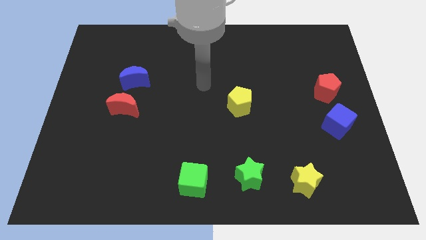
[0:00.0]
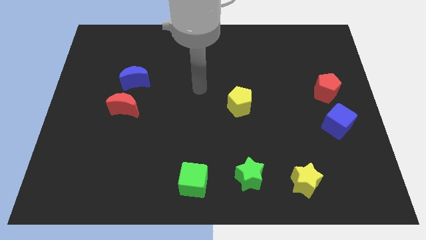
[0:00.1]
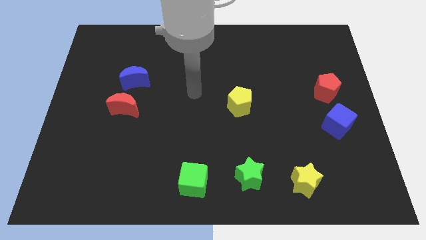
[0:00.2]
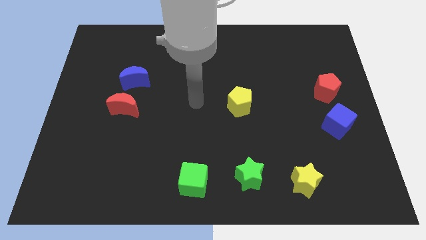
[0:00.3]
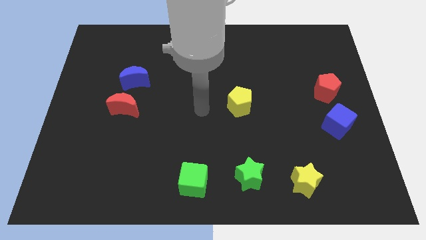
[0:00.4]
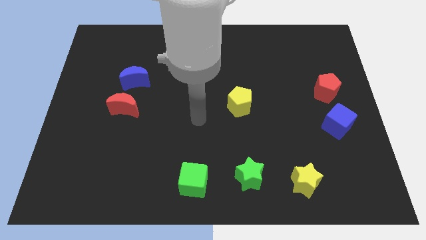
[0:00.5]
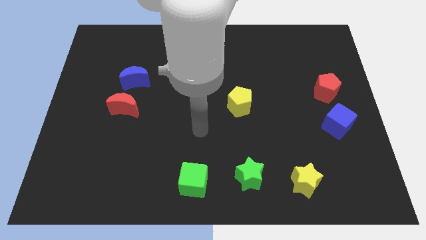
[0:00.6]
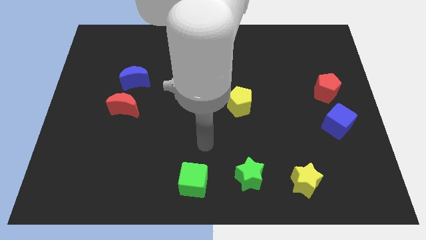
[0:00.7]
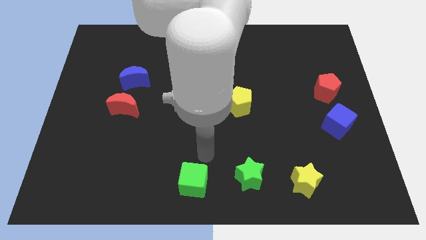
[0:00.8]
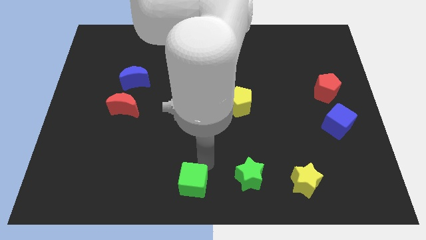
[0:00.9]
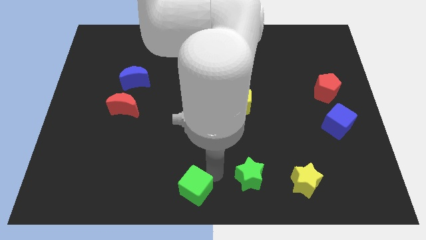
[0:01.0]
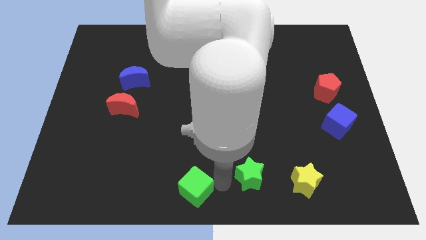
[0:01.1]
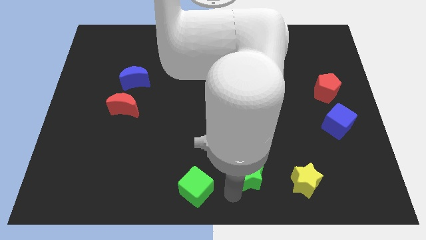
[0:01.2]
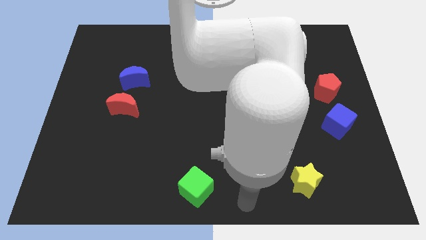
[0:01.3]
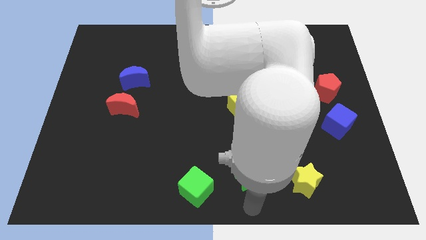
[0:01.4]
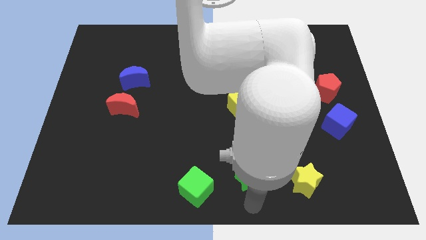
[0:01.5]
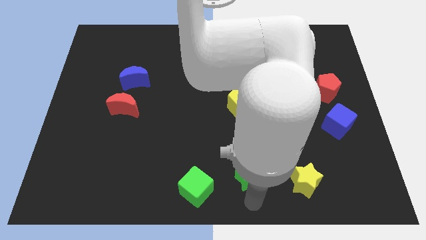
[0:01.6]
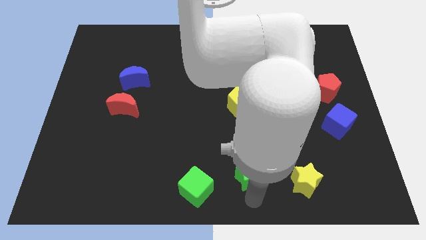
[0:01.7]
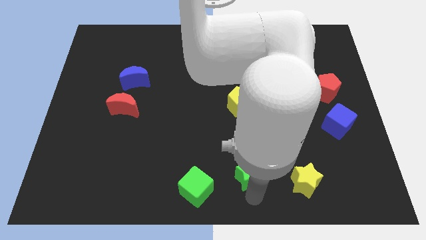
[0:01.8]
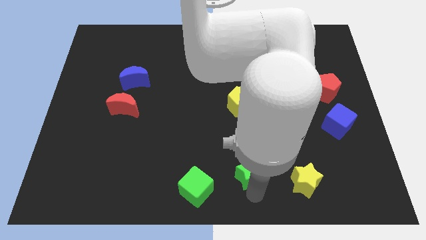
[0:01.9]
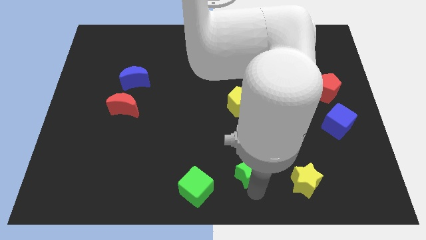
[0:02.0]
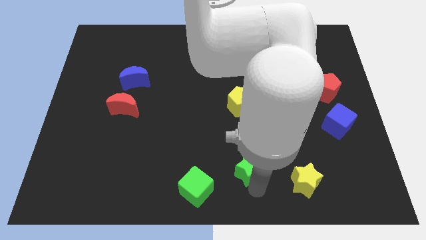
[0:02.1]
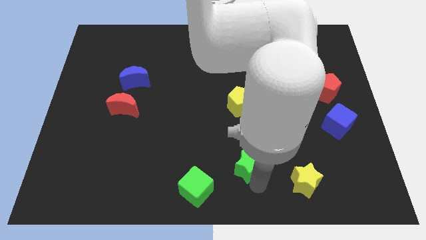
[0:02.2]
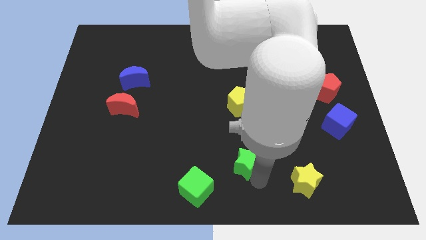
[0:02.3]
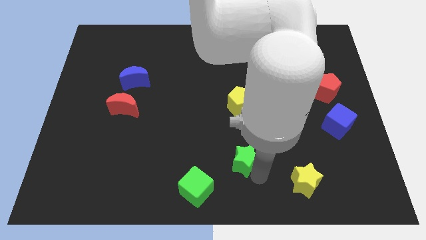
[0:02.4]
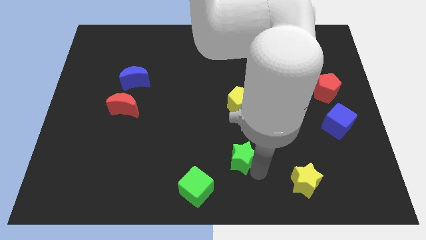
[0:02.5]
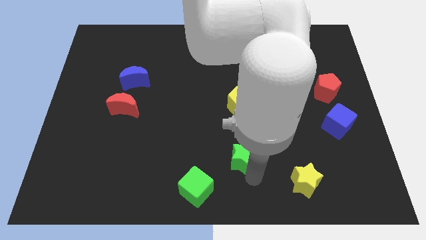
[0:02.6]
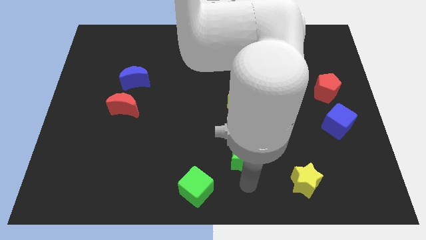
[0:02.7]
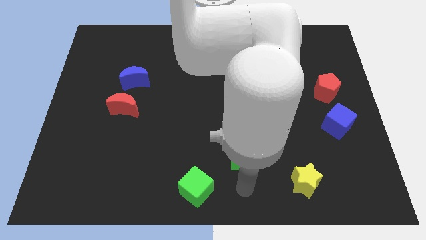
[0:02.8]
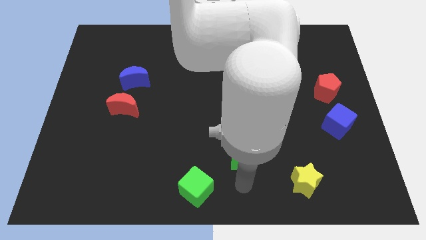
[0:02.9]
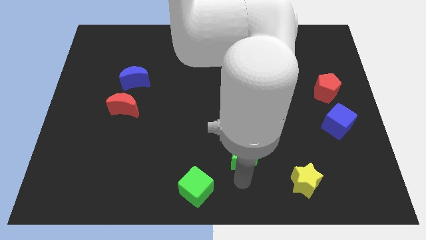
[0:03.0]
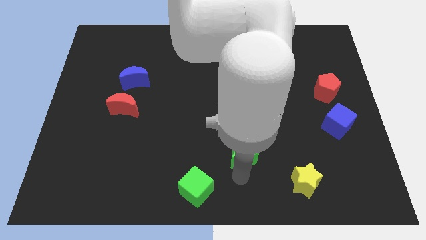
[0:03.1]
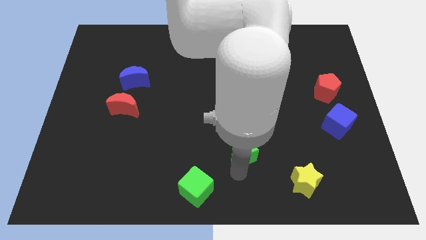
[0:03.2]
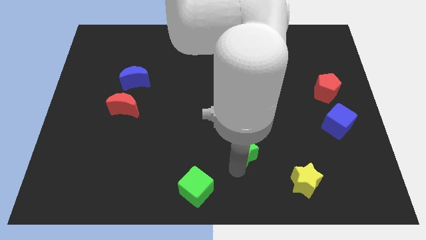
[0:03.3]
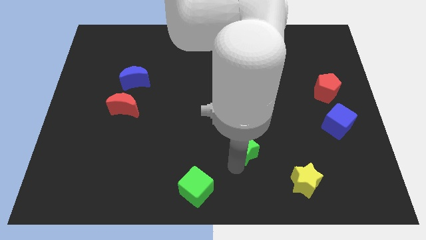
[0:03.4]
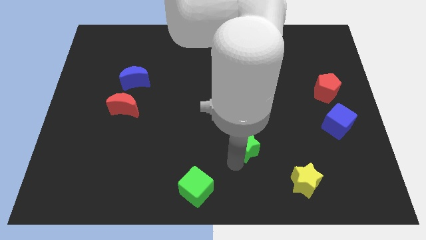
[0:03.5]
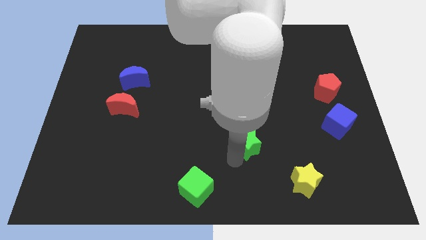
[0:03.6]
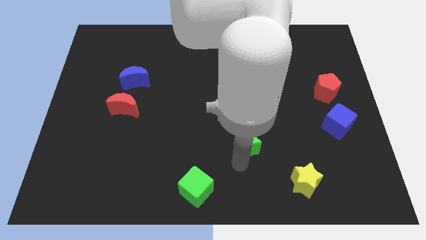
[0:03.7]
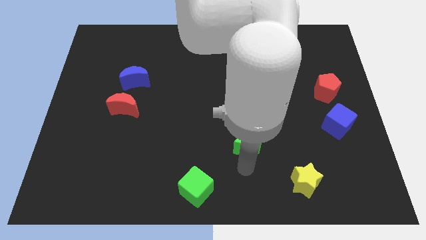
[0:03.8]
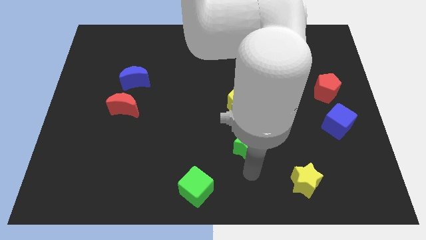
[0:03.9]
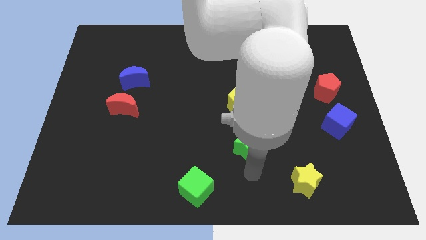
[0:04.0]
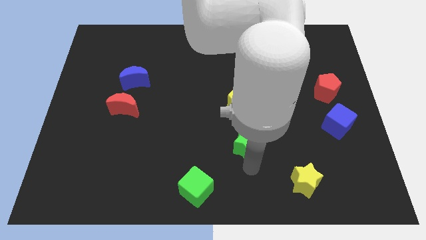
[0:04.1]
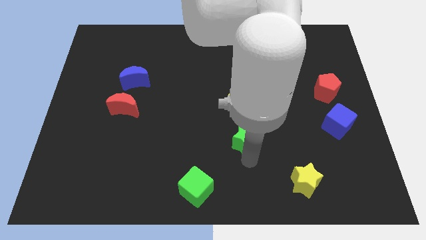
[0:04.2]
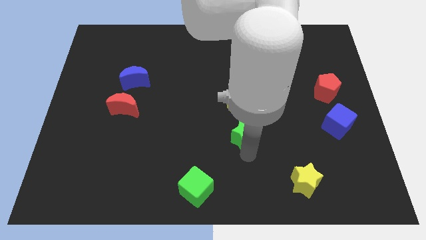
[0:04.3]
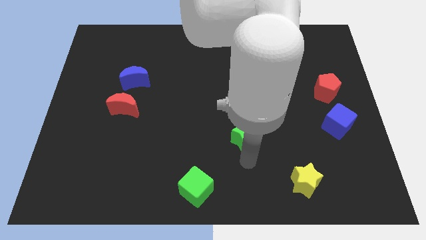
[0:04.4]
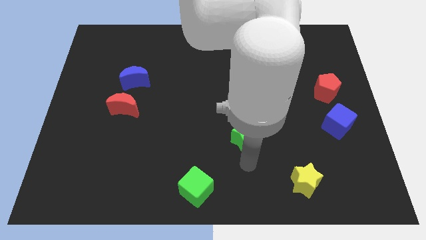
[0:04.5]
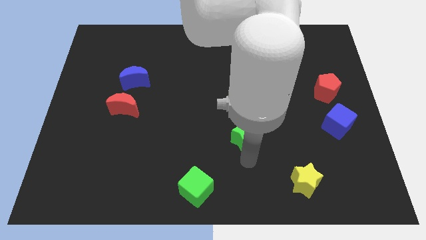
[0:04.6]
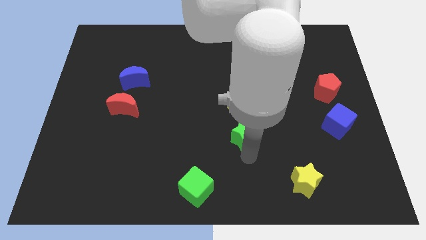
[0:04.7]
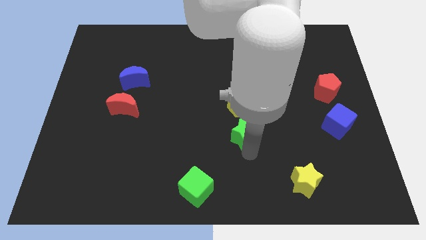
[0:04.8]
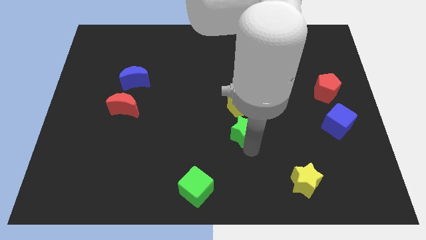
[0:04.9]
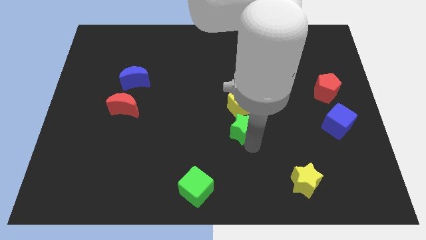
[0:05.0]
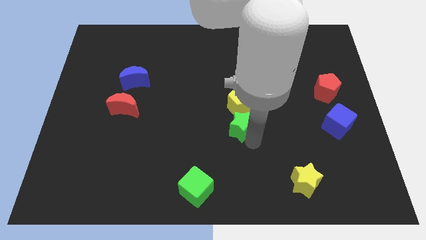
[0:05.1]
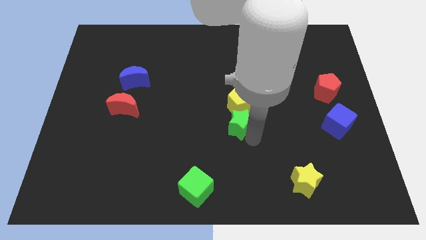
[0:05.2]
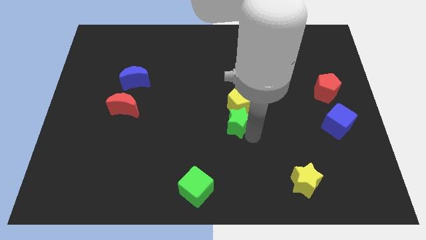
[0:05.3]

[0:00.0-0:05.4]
move the green star next to the yellow pentagon

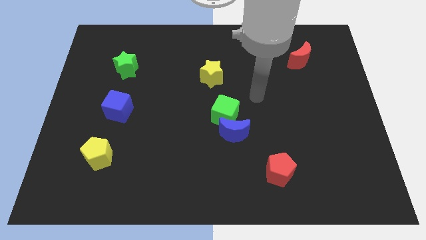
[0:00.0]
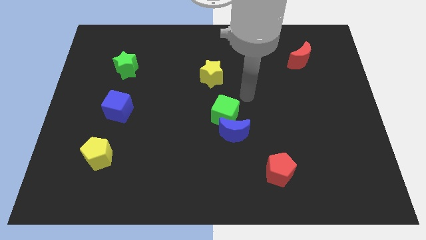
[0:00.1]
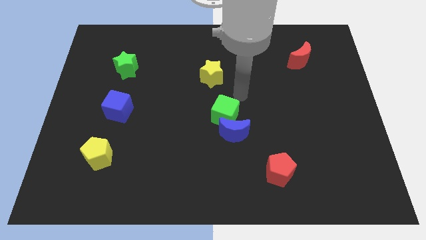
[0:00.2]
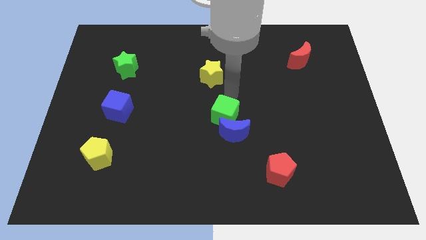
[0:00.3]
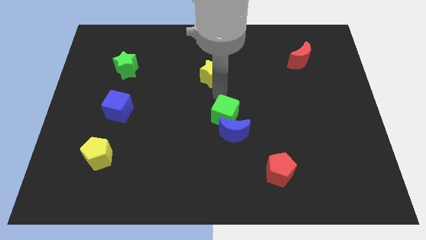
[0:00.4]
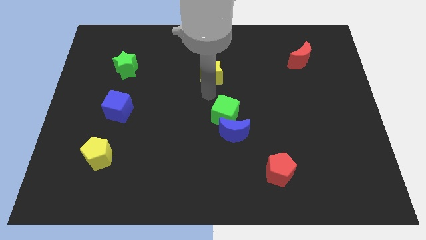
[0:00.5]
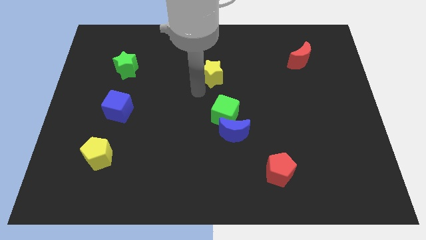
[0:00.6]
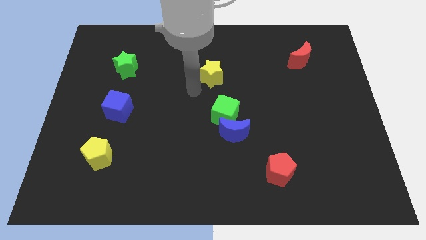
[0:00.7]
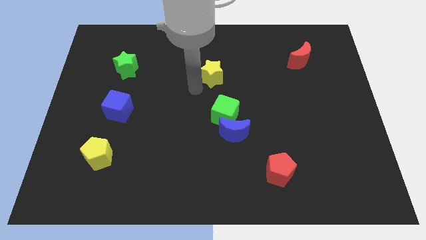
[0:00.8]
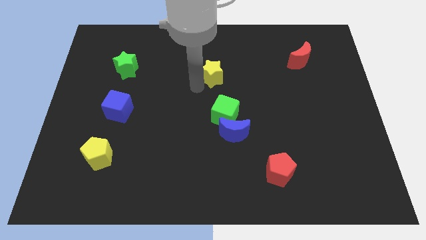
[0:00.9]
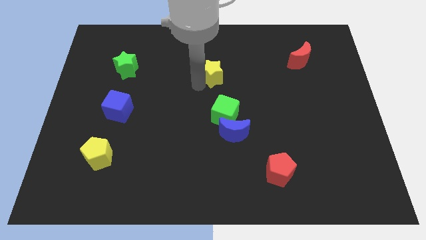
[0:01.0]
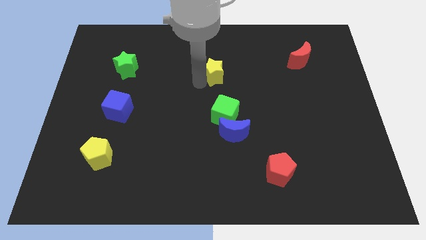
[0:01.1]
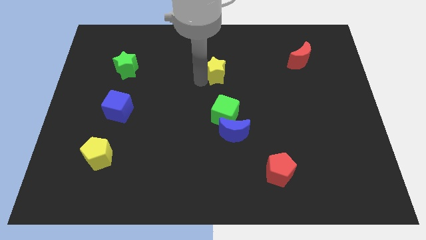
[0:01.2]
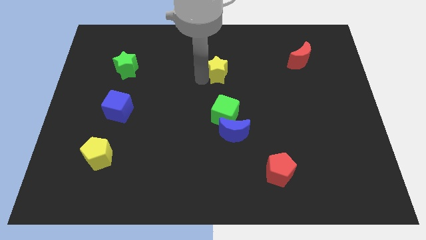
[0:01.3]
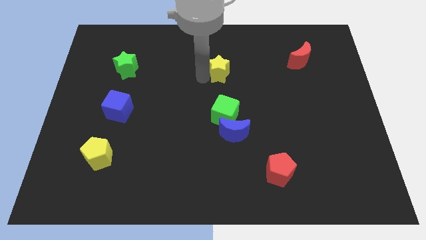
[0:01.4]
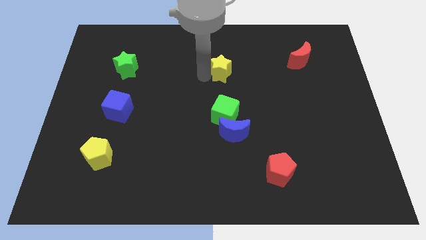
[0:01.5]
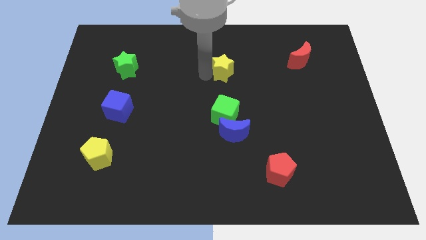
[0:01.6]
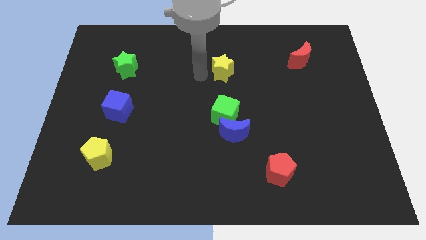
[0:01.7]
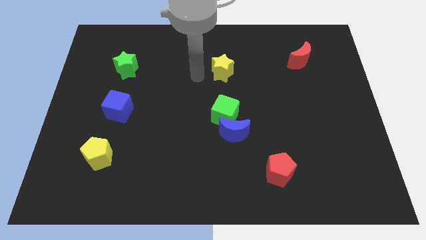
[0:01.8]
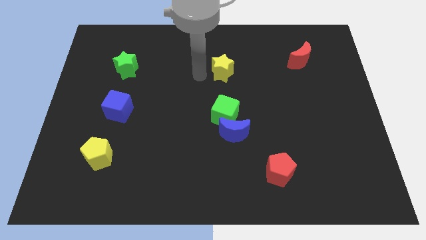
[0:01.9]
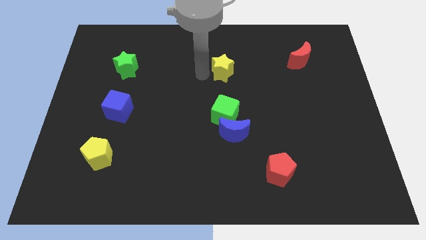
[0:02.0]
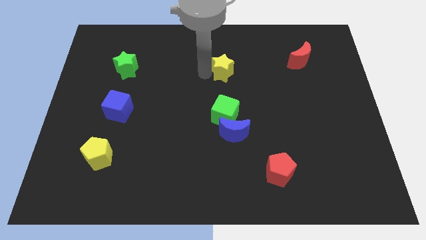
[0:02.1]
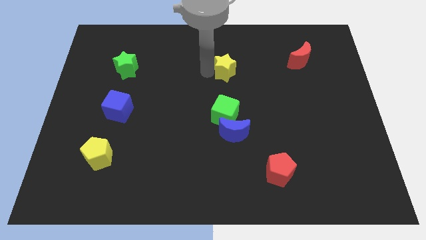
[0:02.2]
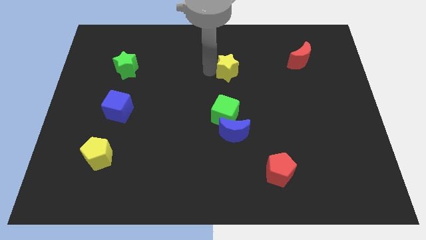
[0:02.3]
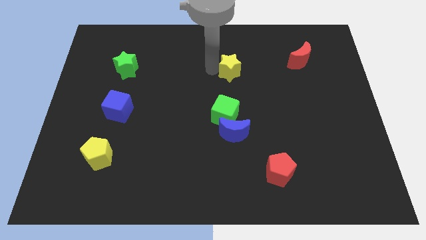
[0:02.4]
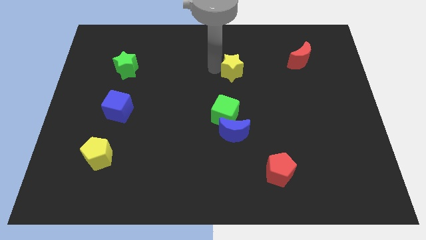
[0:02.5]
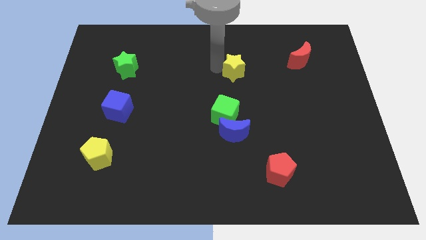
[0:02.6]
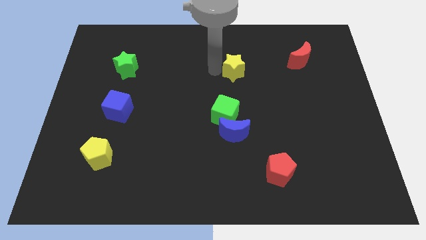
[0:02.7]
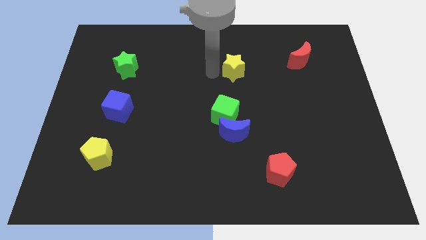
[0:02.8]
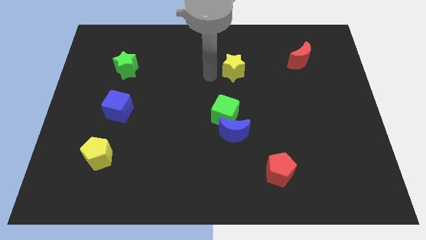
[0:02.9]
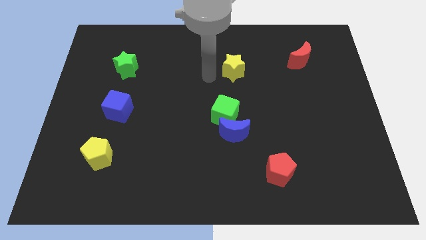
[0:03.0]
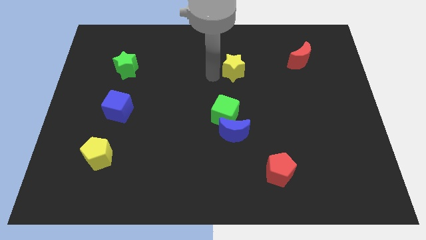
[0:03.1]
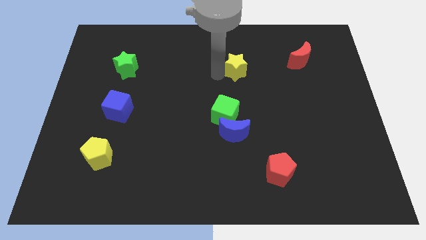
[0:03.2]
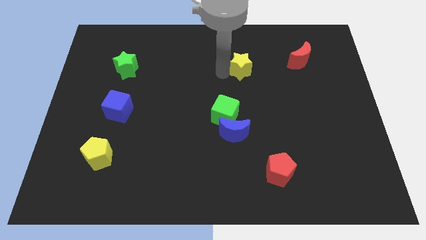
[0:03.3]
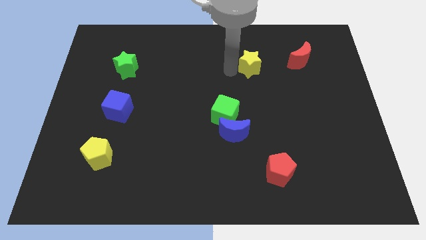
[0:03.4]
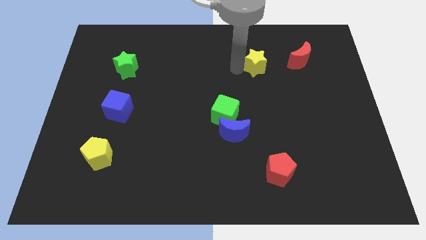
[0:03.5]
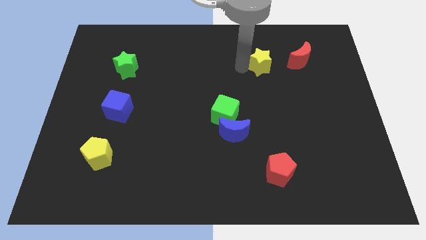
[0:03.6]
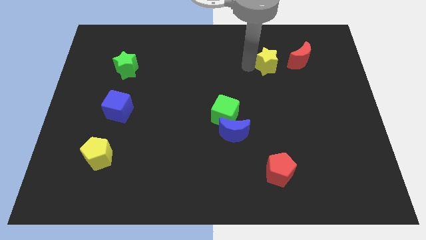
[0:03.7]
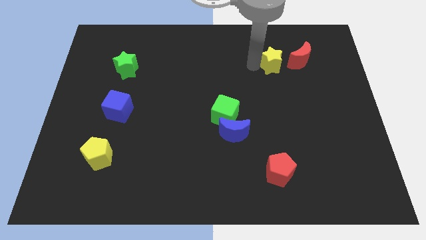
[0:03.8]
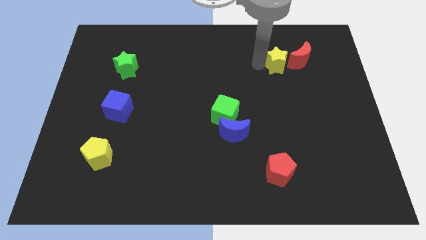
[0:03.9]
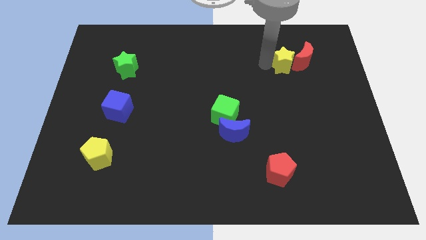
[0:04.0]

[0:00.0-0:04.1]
move the yellow star next to the red moon
